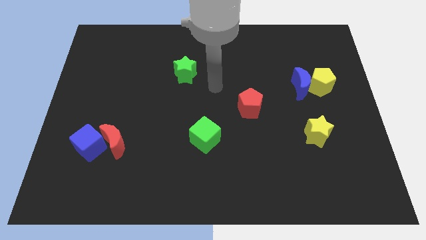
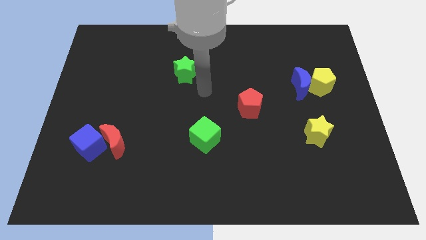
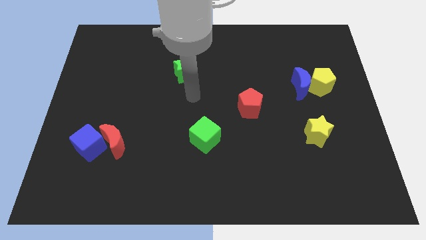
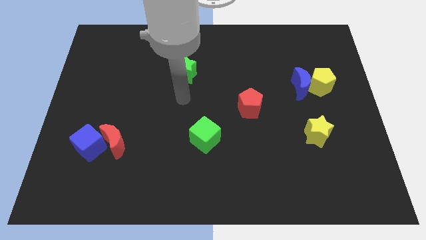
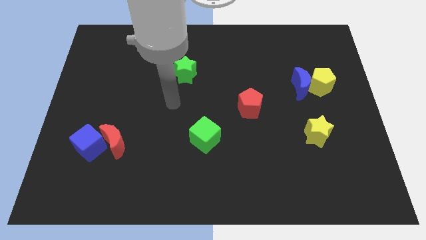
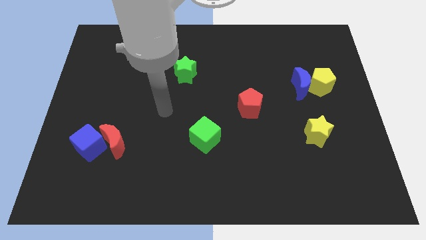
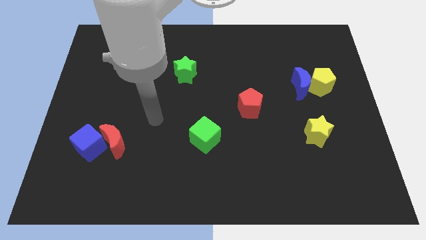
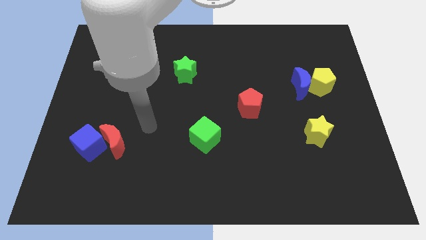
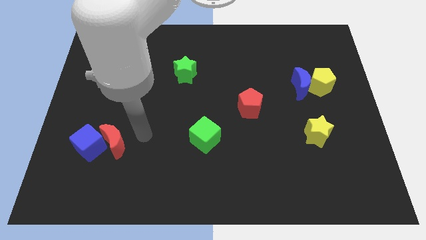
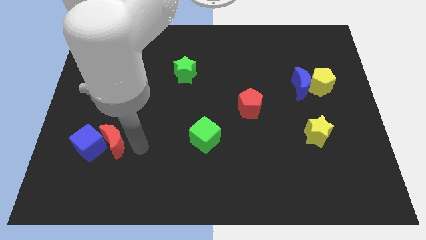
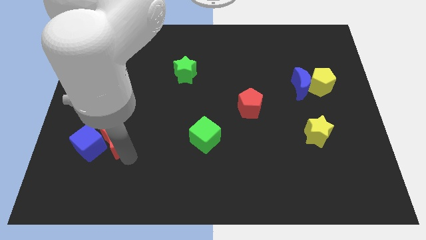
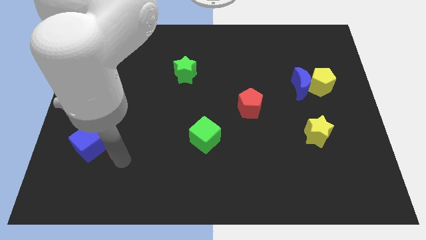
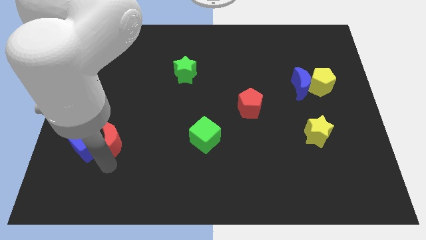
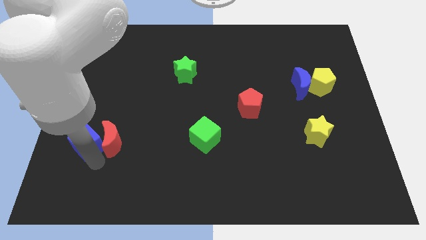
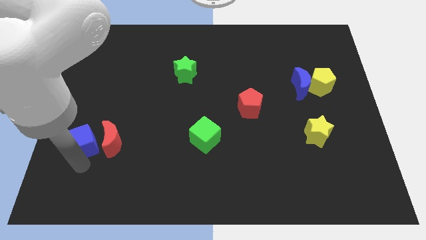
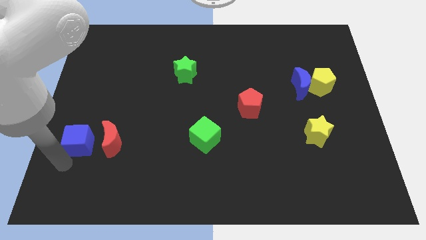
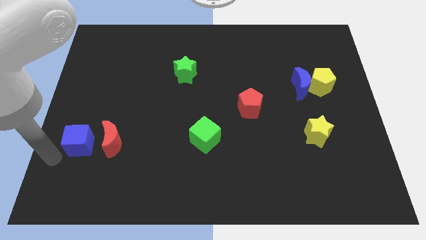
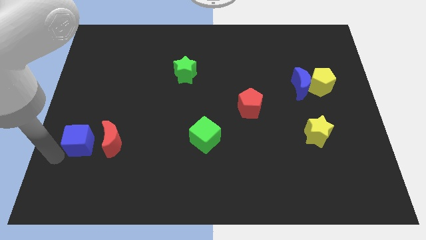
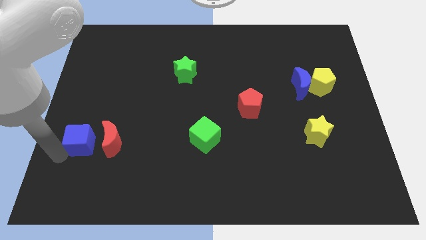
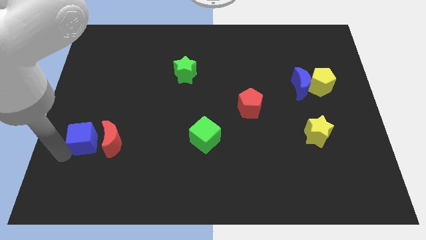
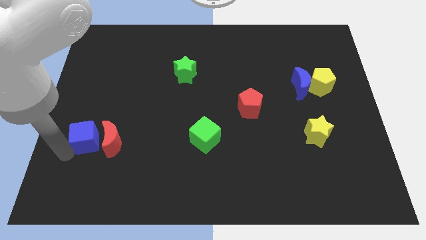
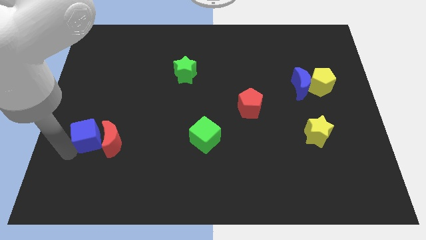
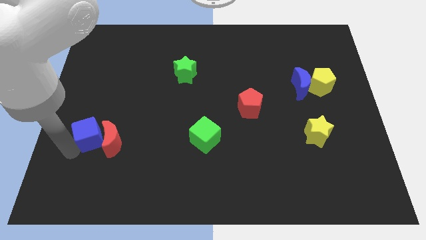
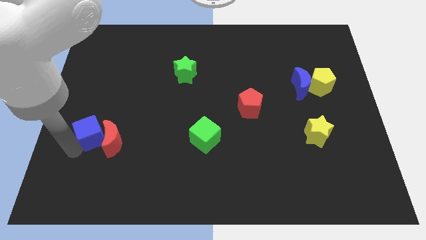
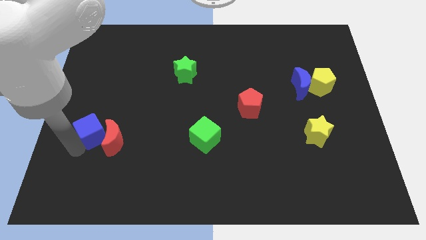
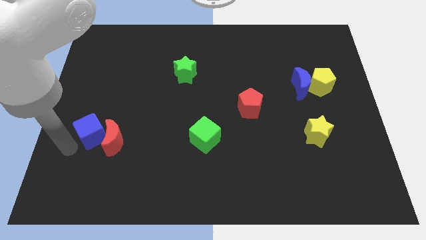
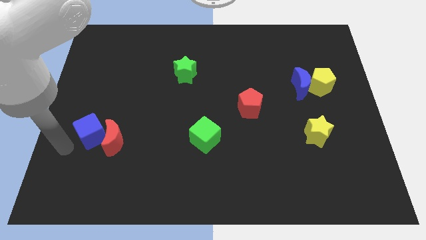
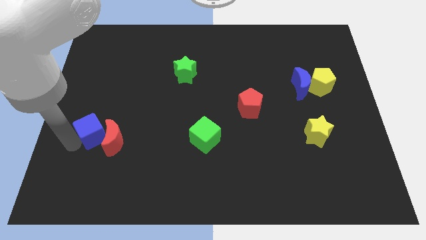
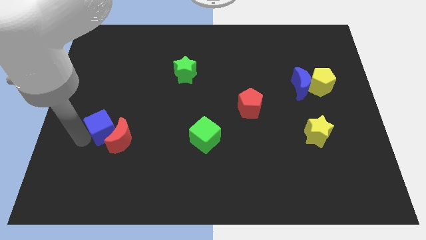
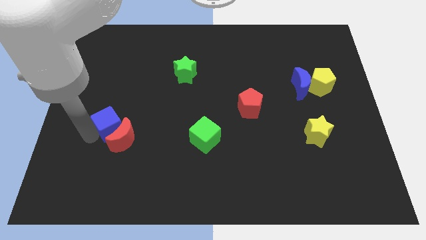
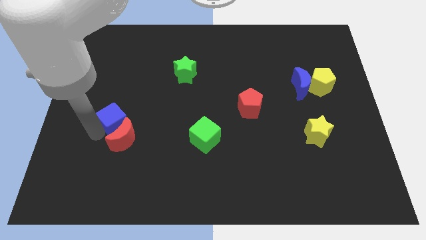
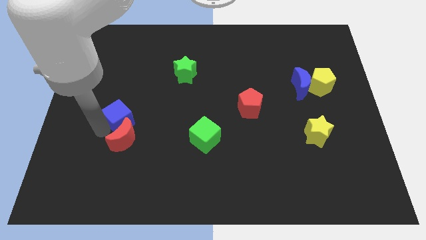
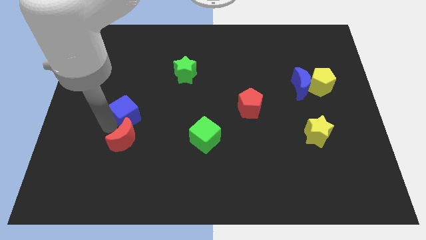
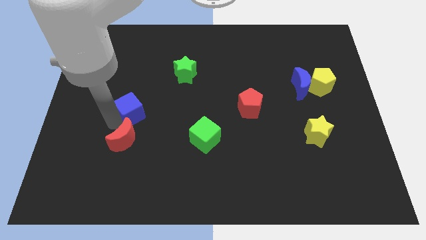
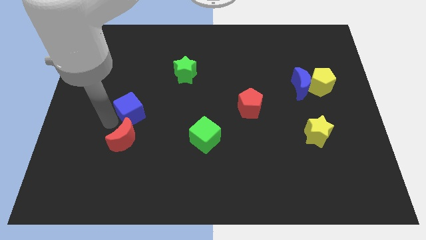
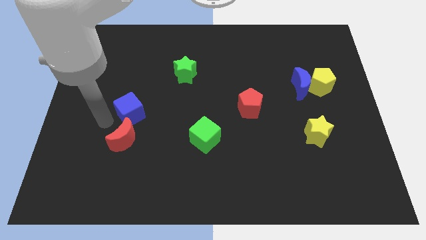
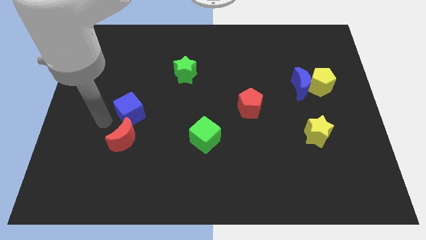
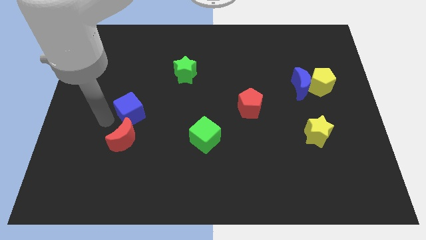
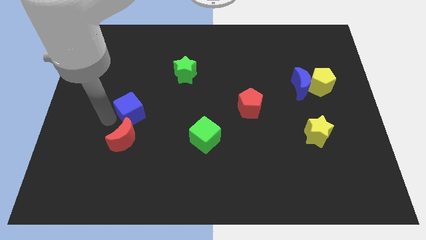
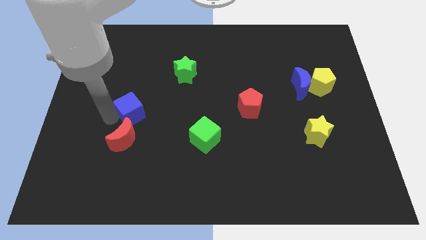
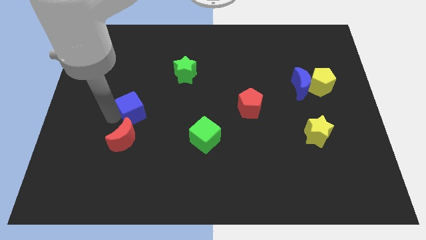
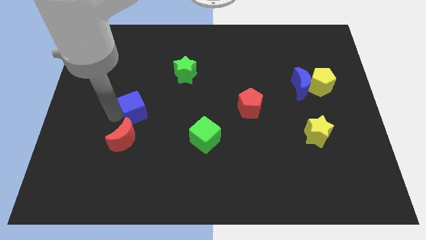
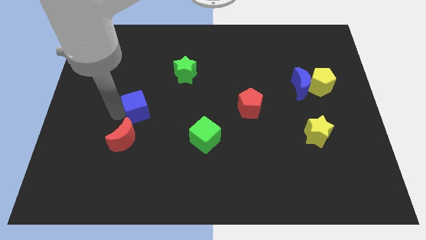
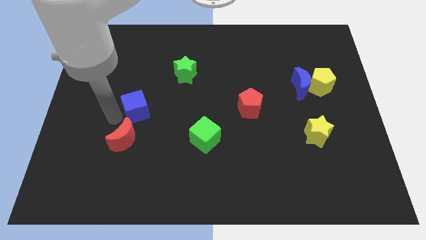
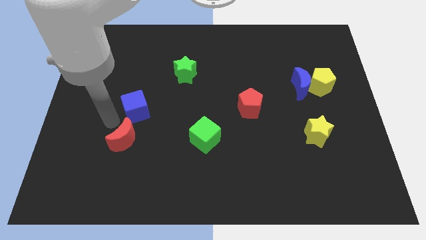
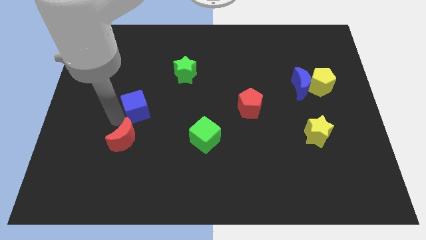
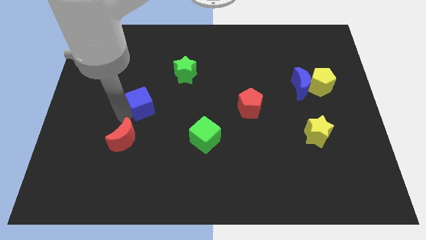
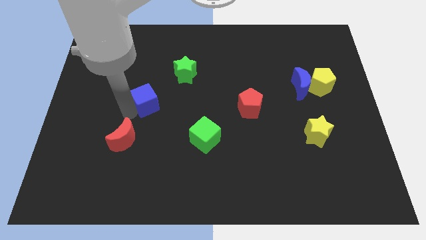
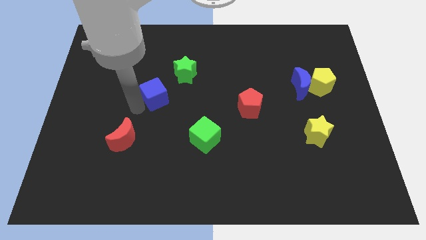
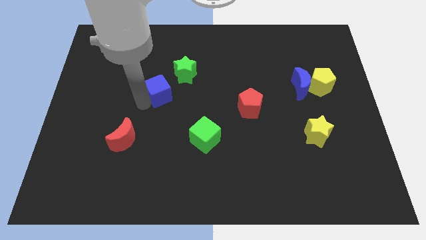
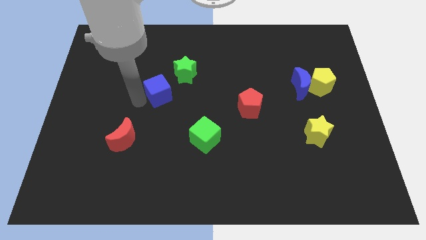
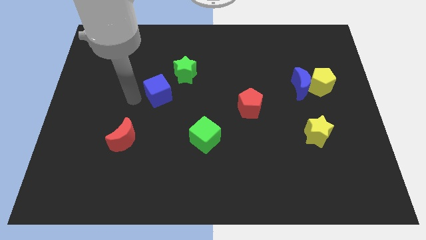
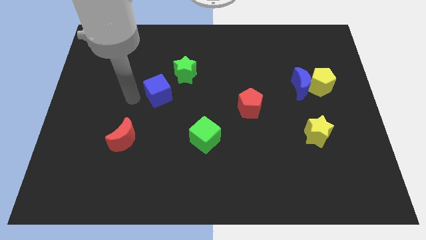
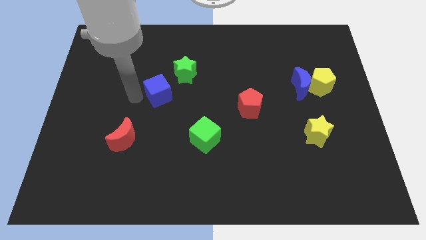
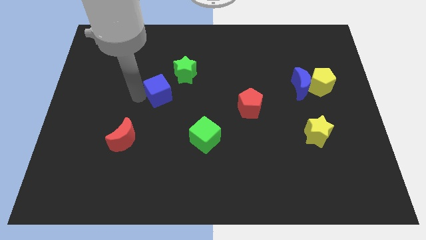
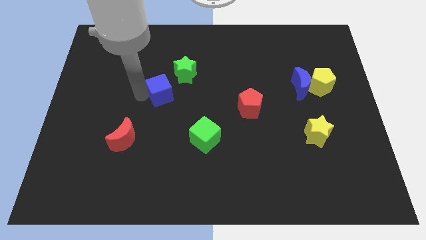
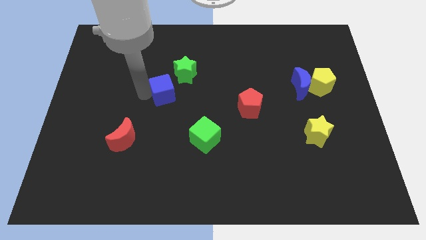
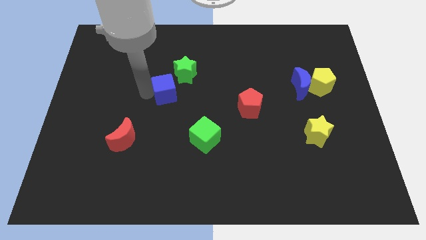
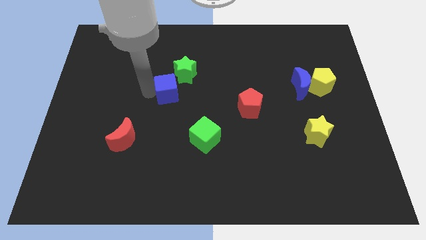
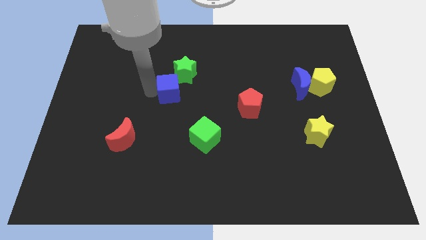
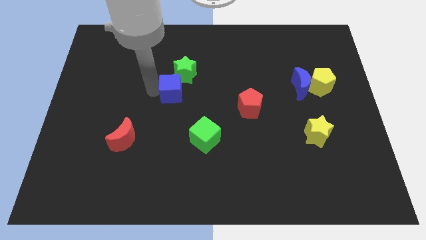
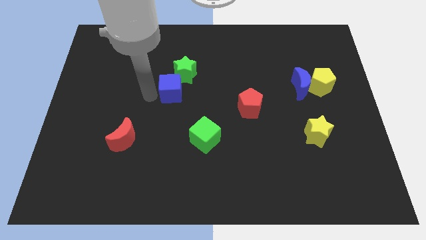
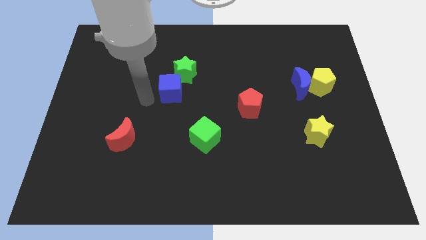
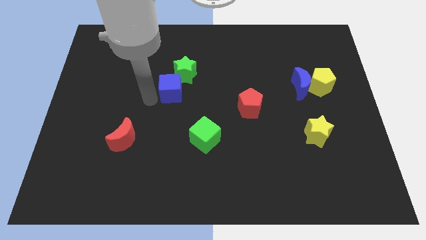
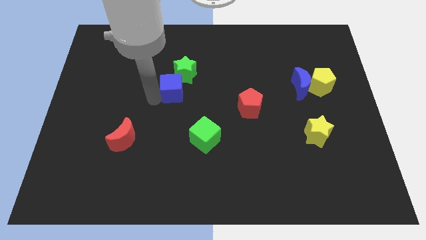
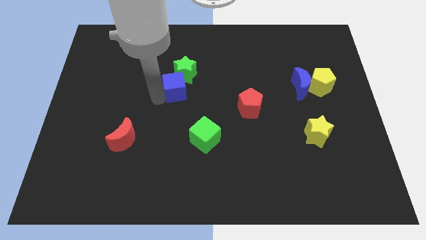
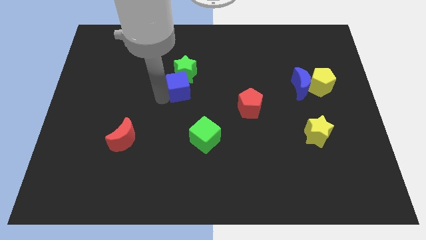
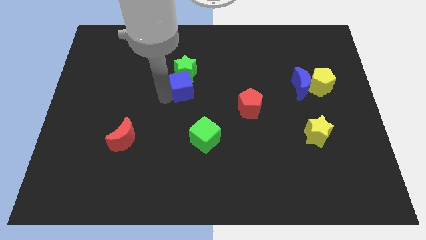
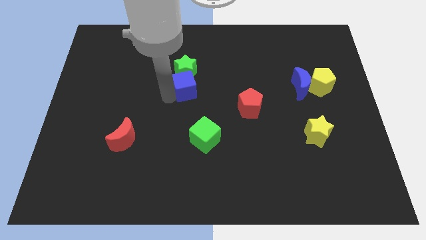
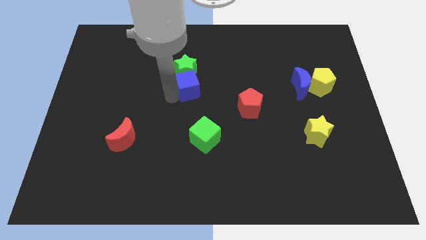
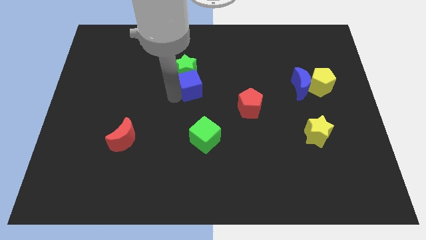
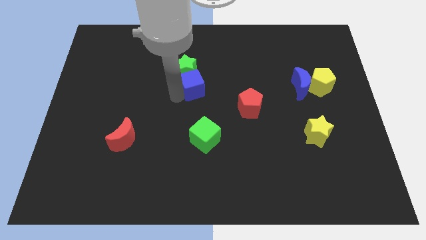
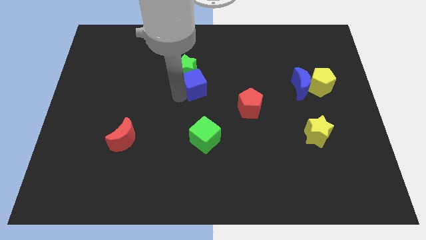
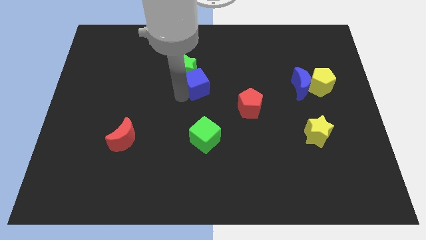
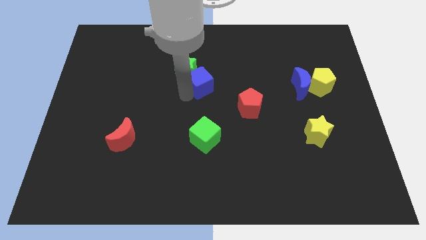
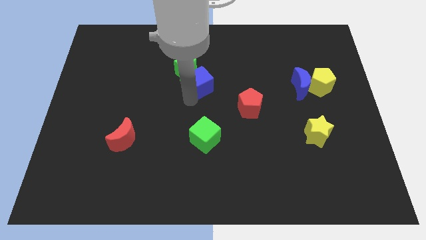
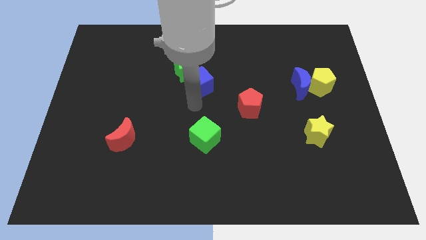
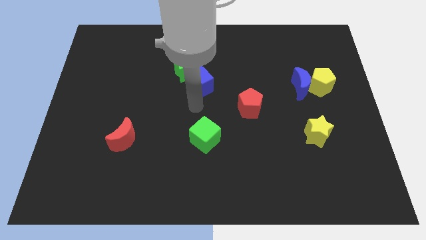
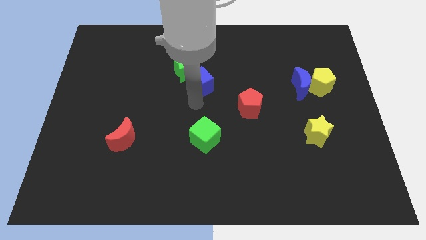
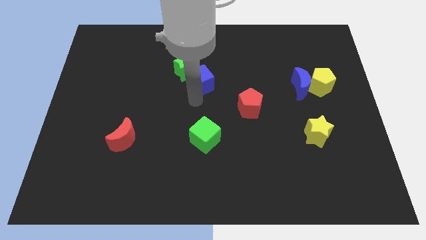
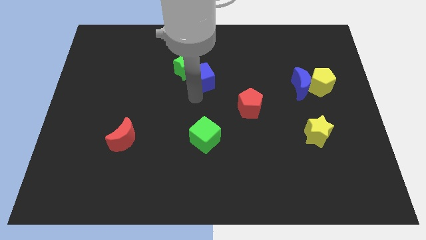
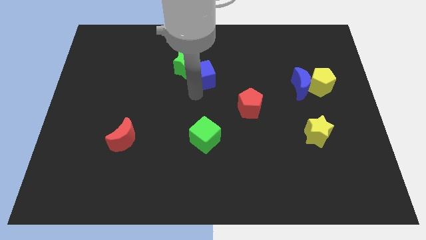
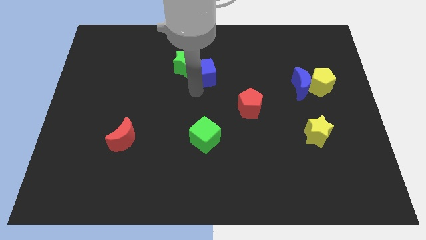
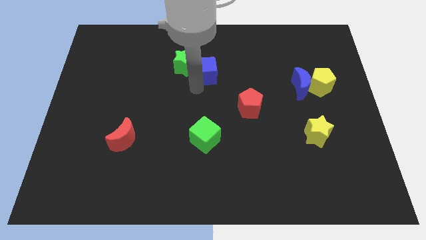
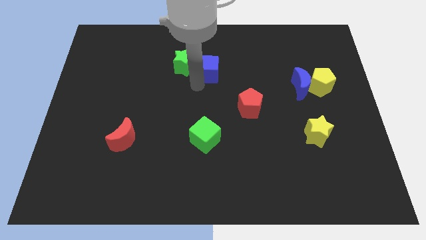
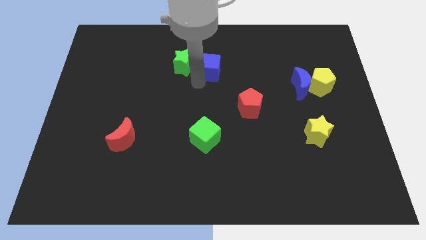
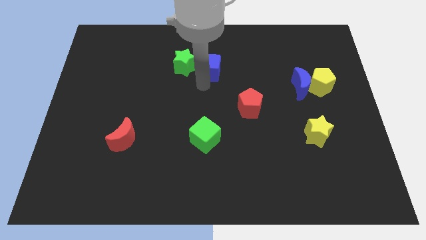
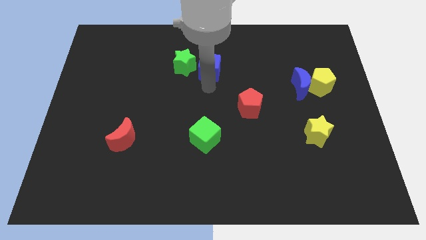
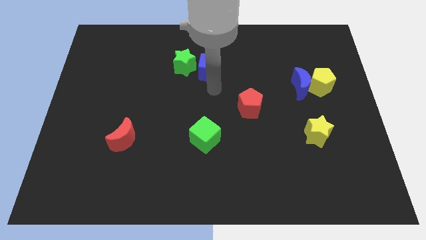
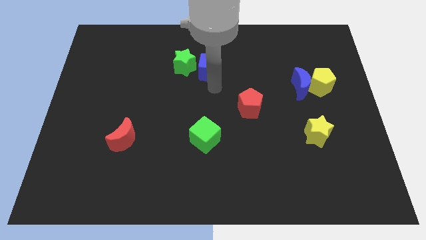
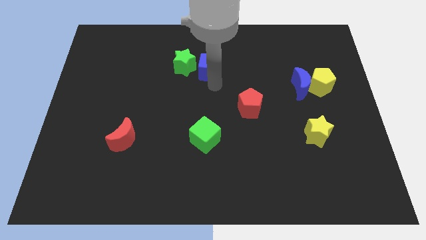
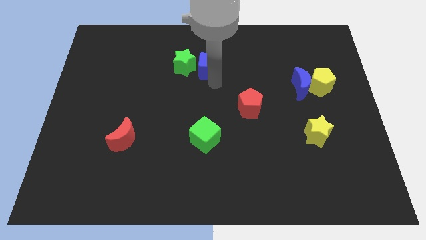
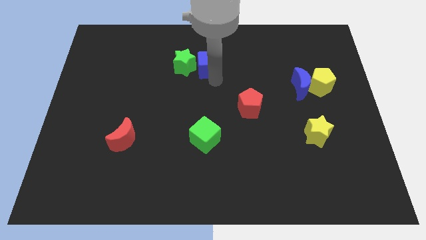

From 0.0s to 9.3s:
put the blue cube to the top right side of the green star
